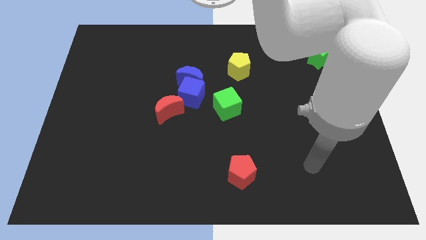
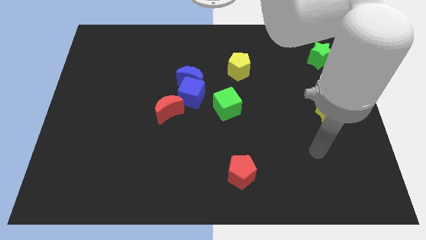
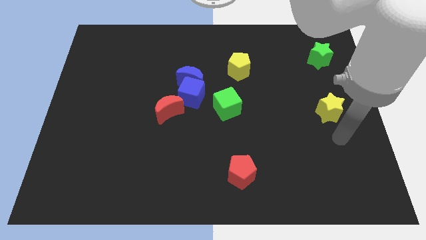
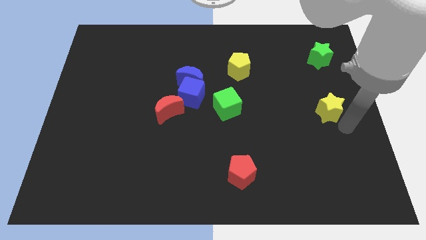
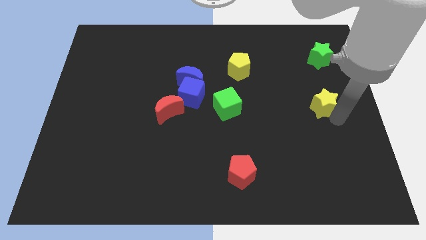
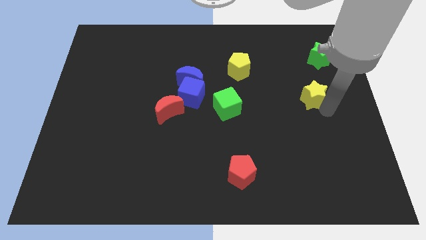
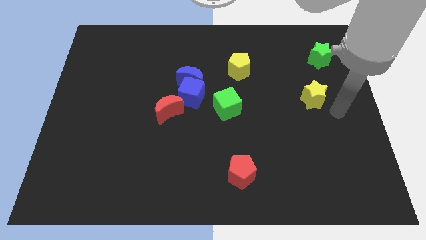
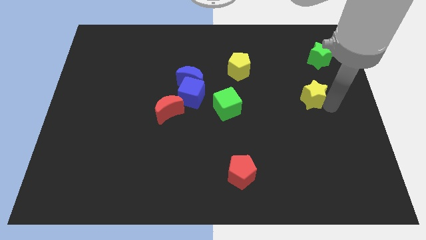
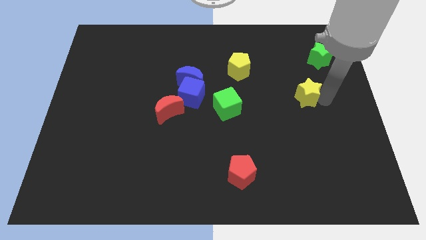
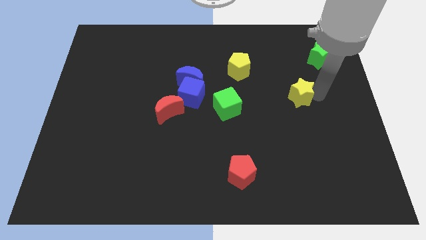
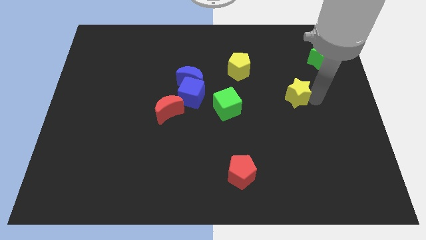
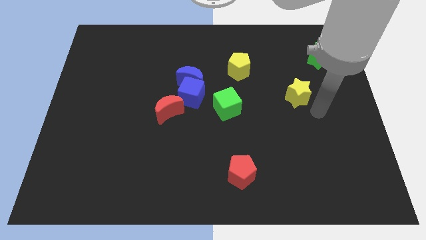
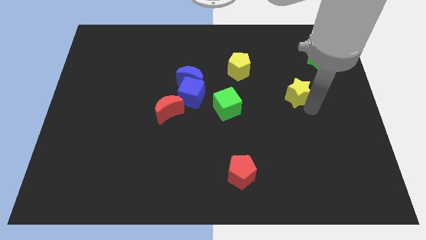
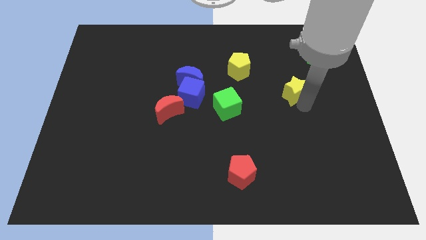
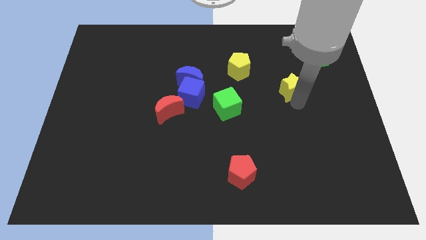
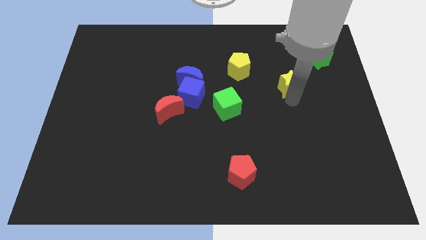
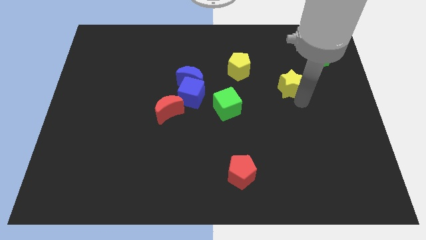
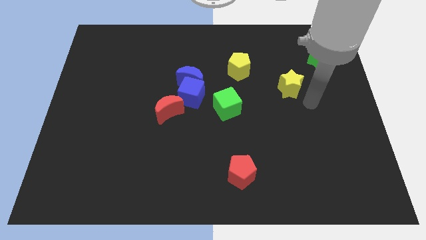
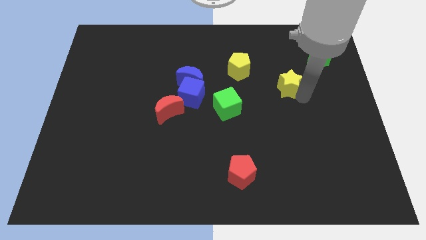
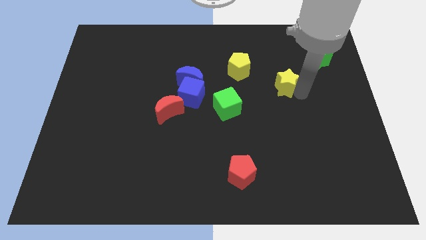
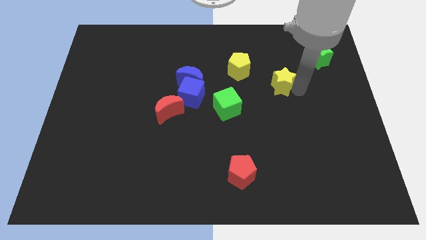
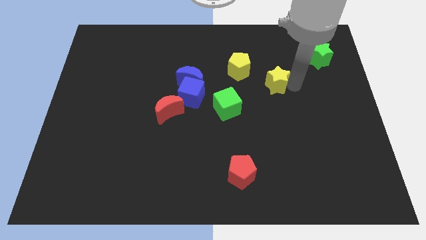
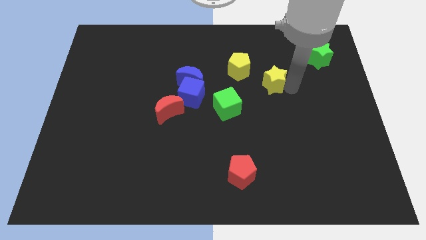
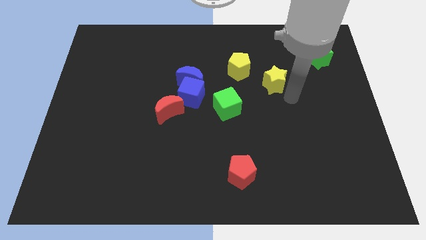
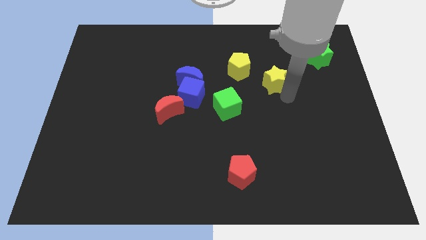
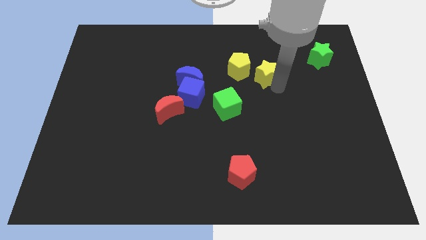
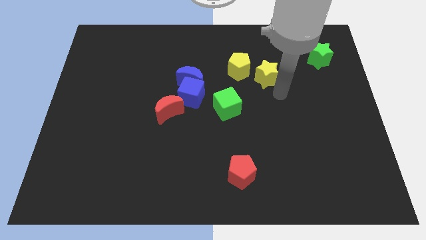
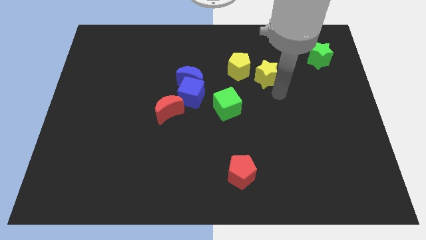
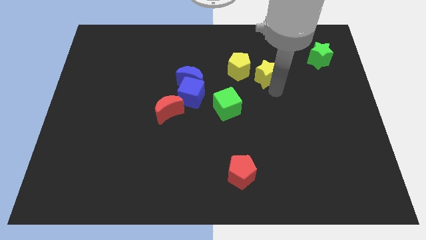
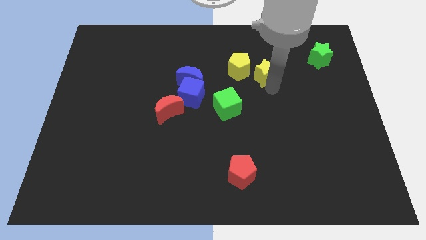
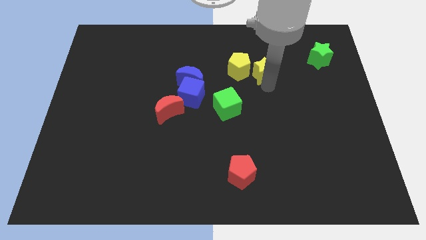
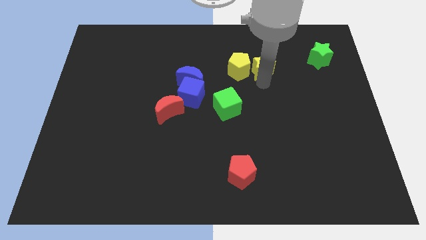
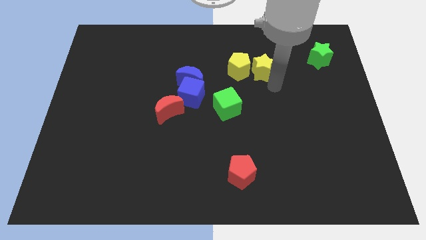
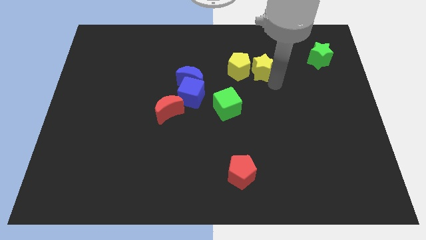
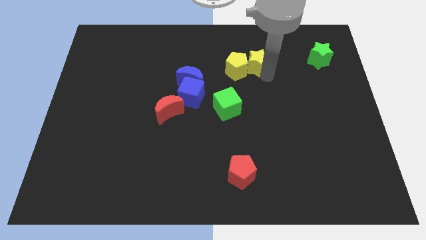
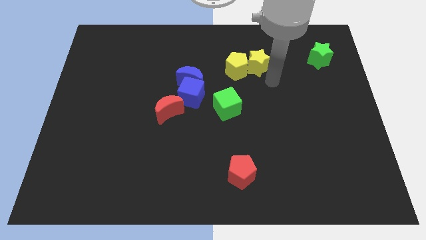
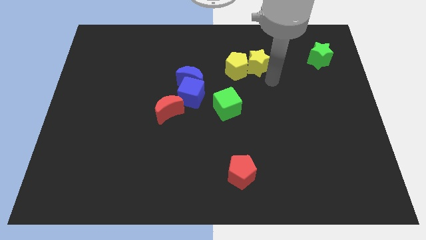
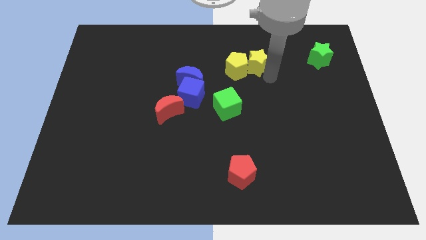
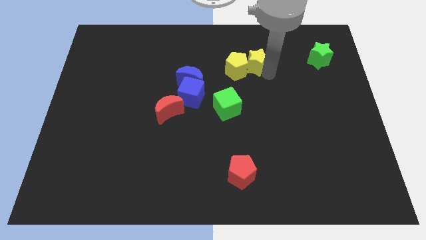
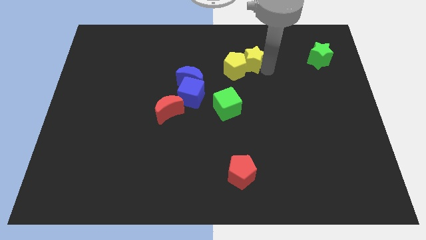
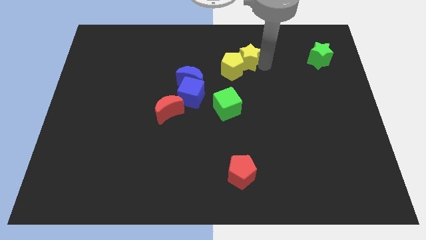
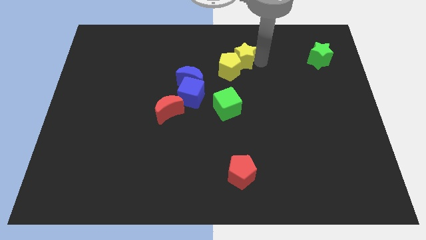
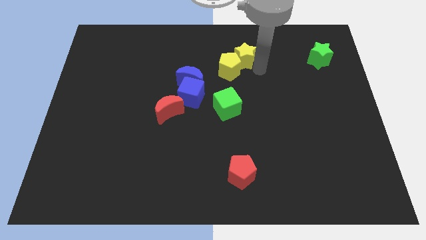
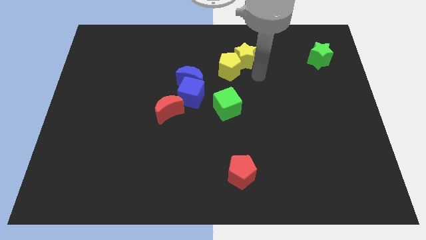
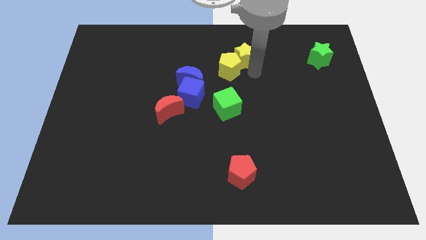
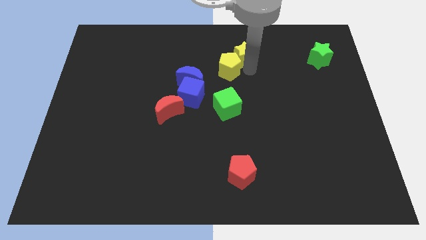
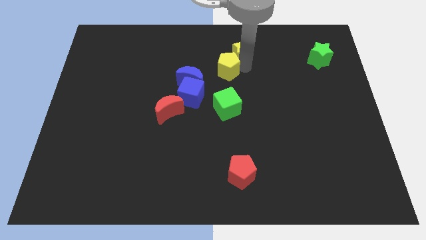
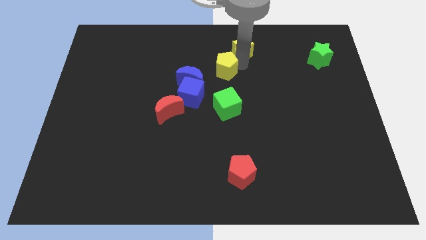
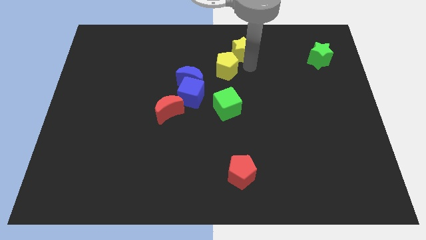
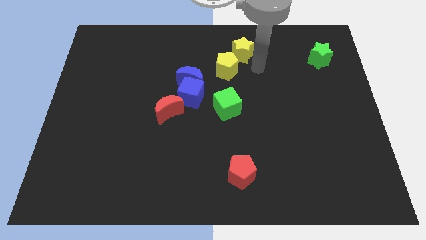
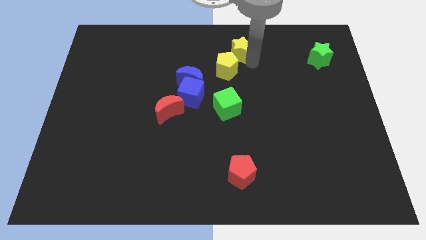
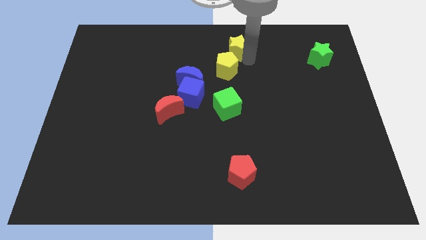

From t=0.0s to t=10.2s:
move the yellow star to the top side

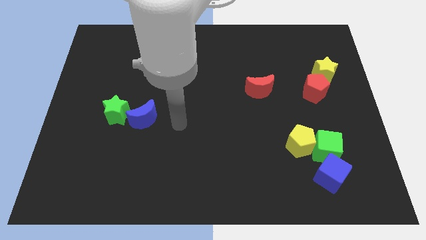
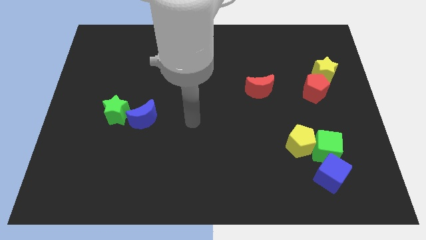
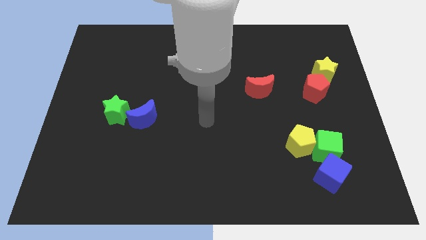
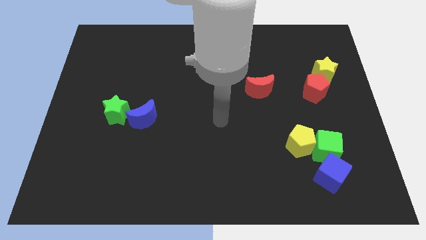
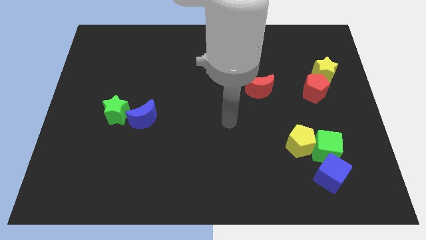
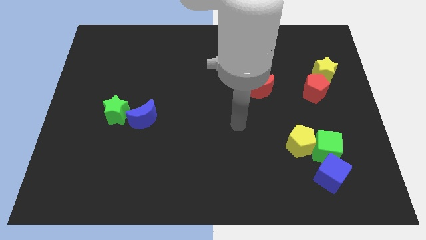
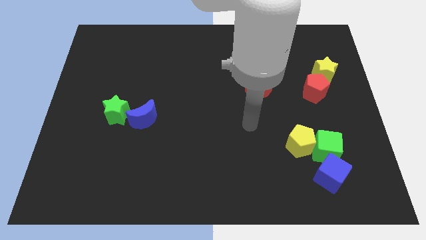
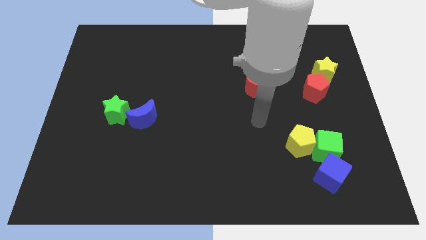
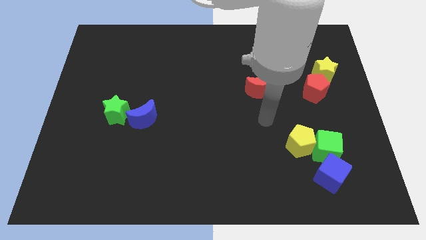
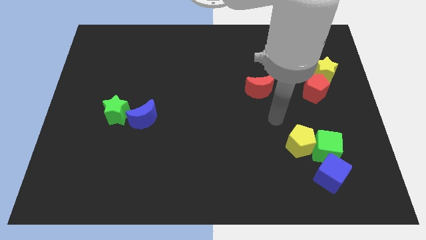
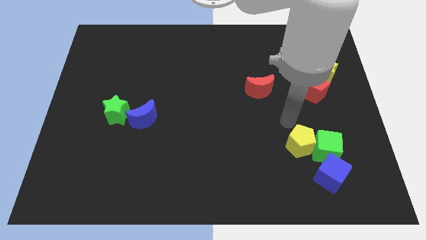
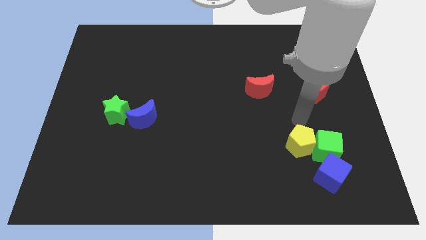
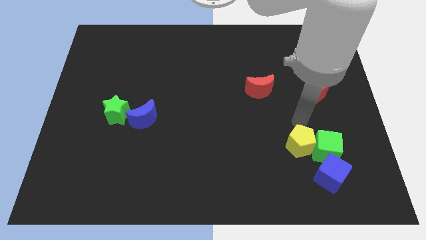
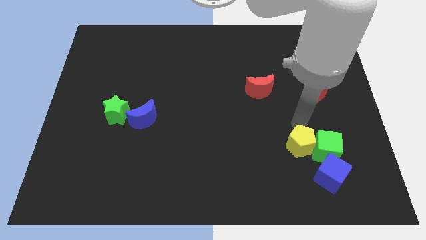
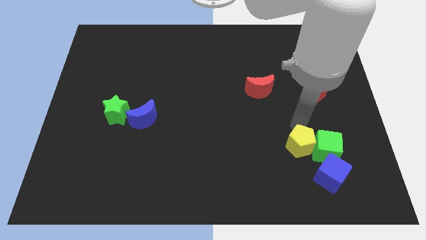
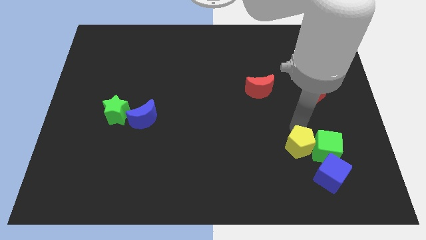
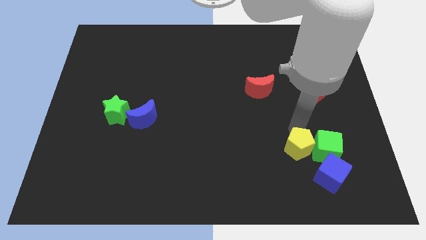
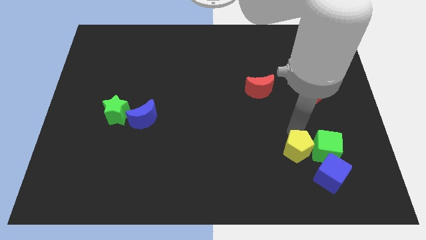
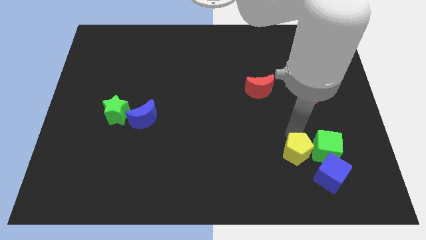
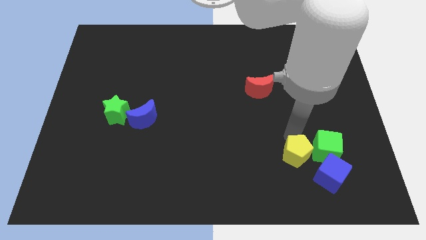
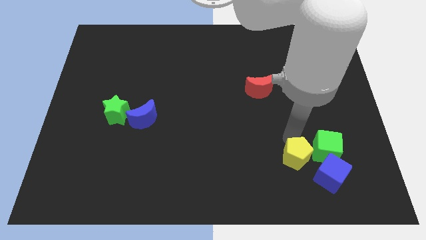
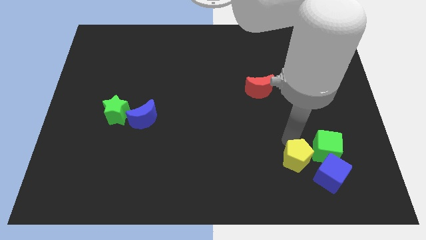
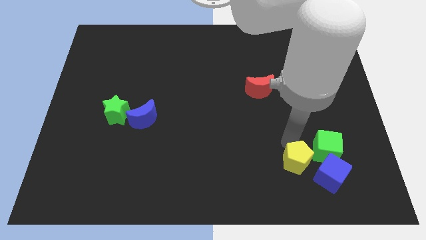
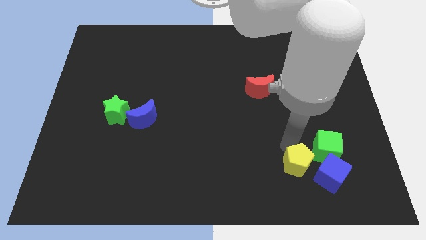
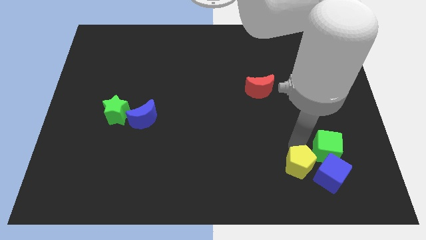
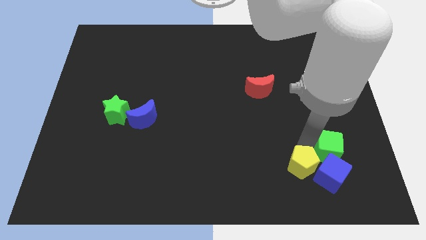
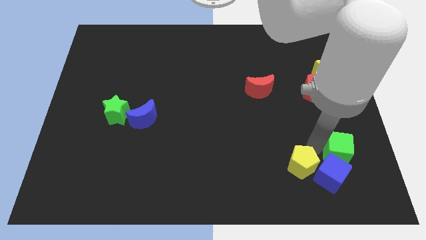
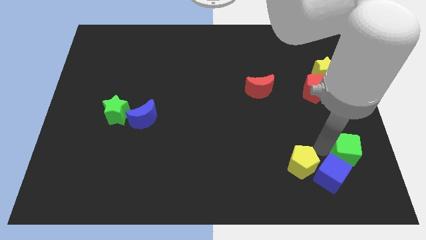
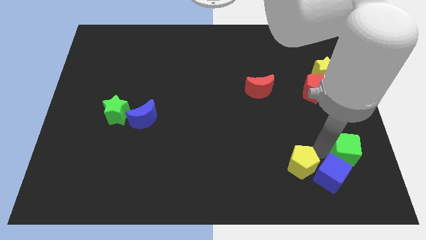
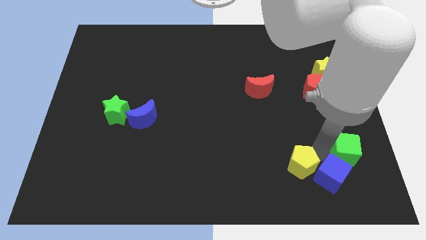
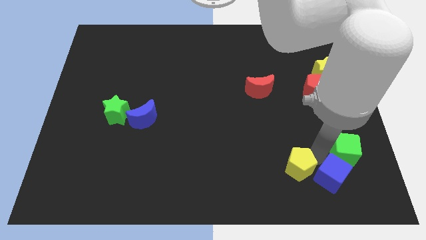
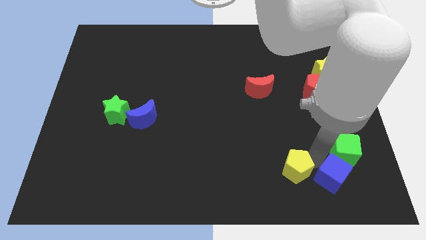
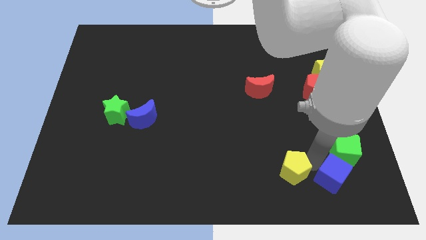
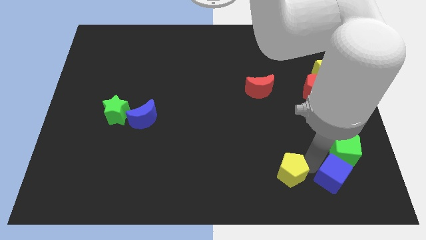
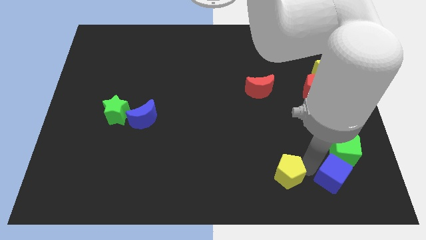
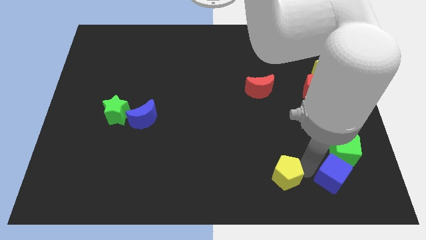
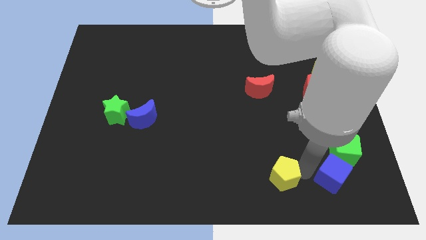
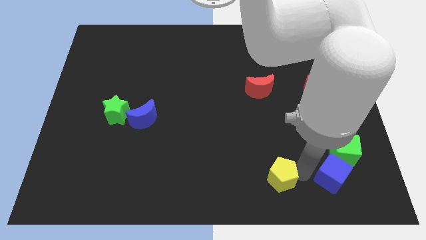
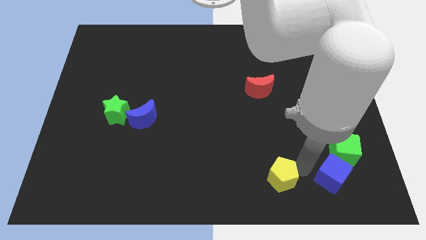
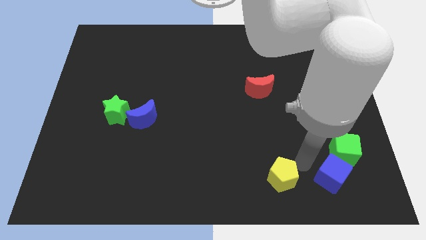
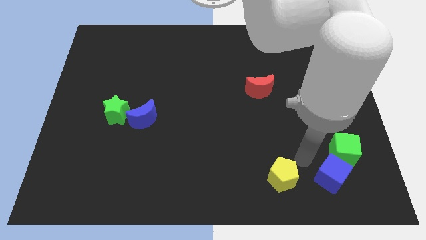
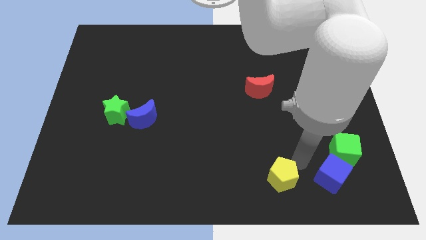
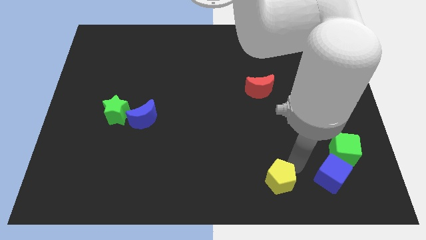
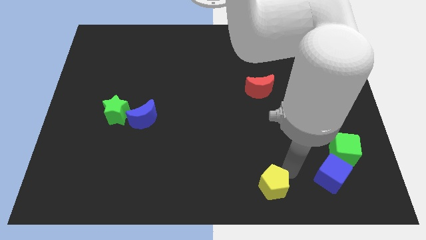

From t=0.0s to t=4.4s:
push the yellow pentagon to the bottom side
